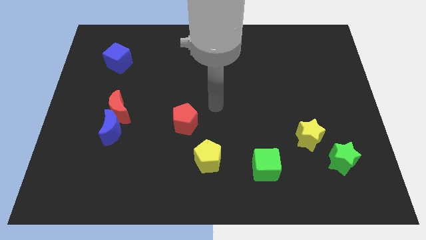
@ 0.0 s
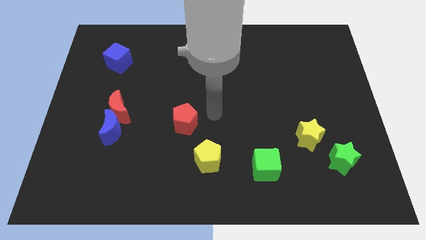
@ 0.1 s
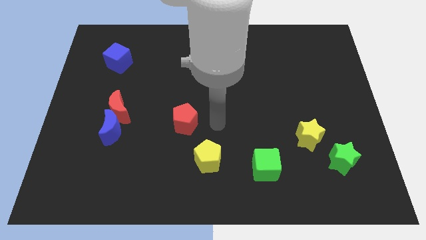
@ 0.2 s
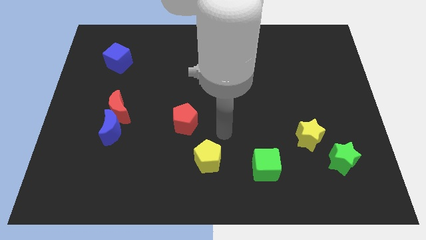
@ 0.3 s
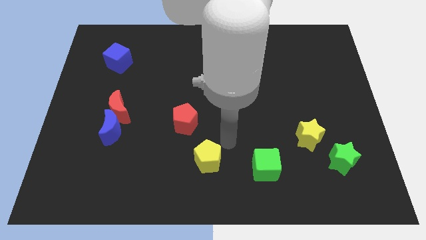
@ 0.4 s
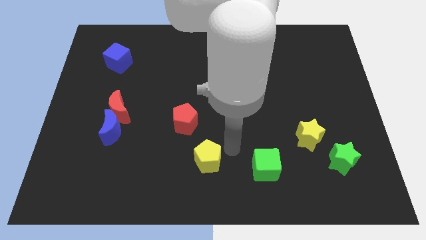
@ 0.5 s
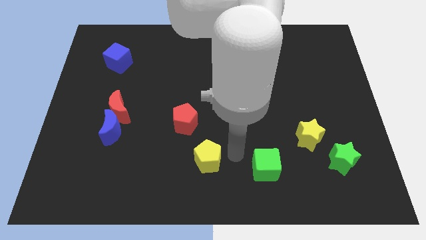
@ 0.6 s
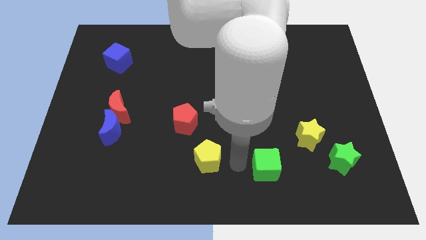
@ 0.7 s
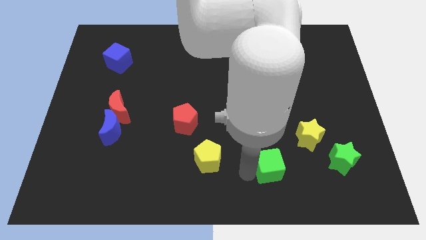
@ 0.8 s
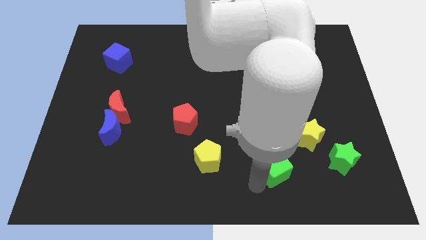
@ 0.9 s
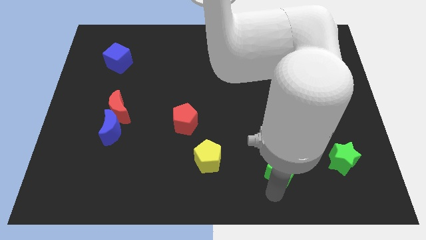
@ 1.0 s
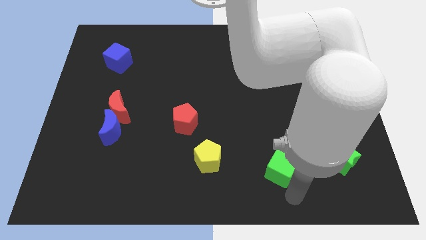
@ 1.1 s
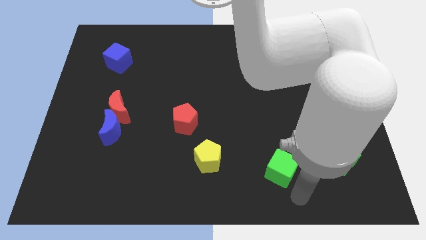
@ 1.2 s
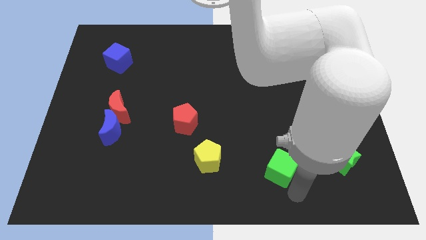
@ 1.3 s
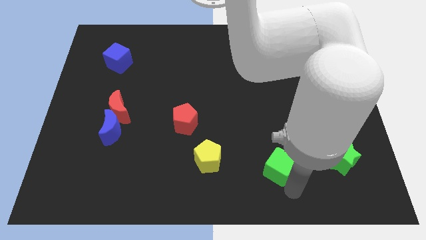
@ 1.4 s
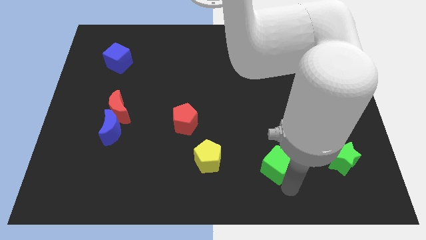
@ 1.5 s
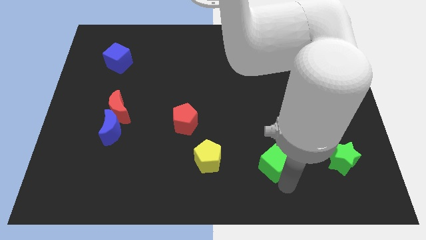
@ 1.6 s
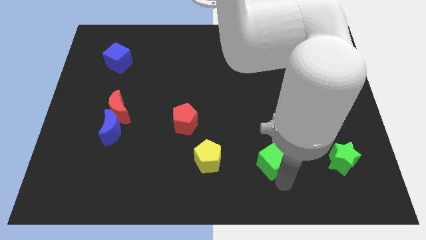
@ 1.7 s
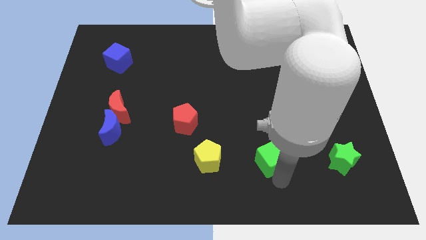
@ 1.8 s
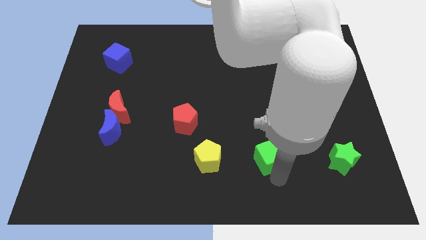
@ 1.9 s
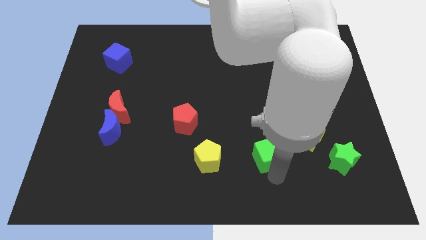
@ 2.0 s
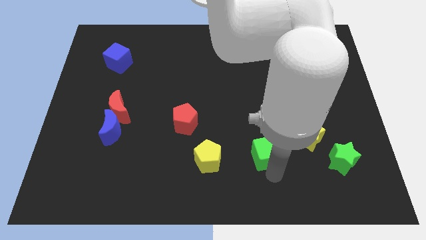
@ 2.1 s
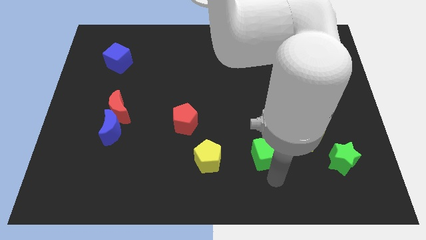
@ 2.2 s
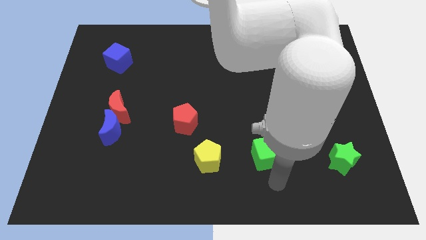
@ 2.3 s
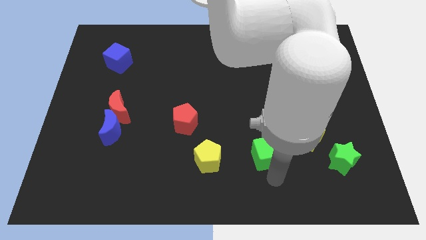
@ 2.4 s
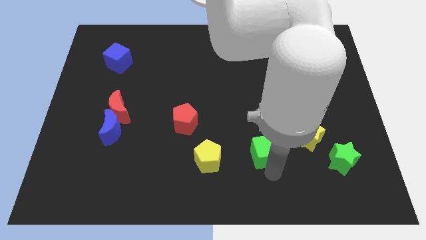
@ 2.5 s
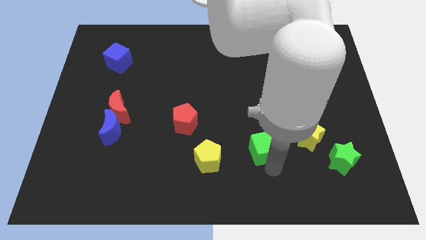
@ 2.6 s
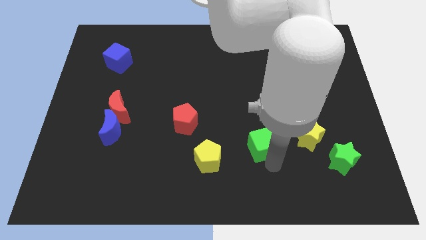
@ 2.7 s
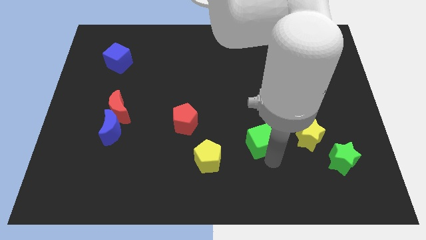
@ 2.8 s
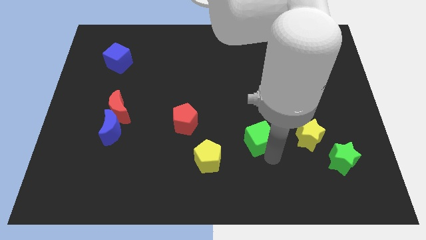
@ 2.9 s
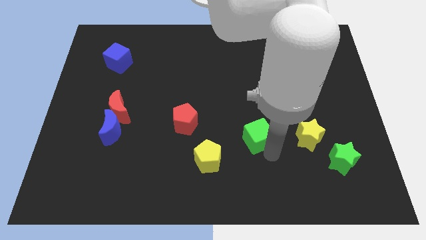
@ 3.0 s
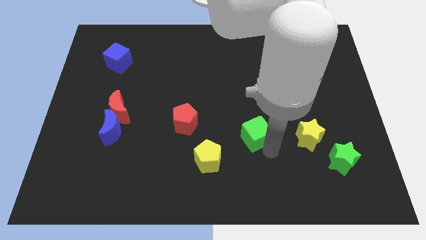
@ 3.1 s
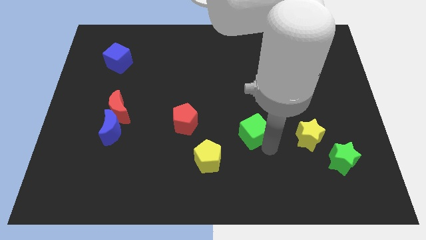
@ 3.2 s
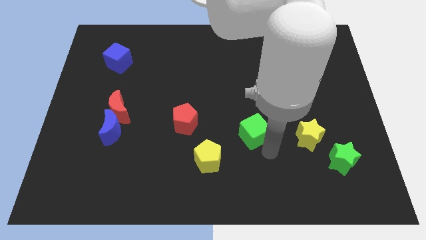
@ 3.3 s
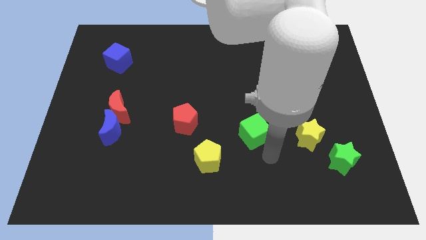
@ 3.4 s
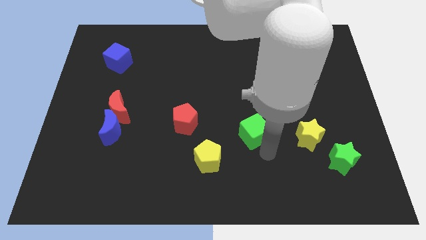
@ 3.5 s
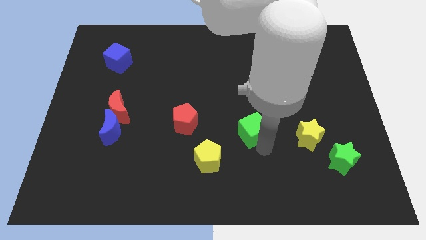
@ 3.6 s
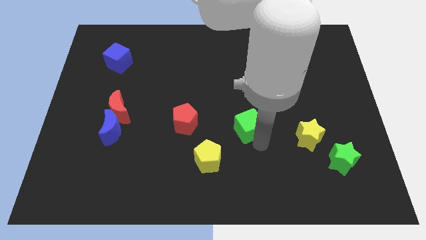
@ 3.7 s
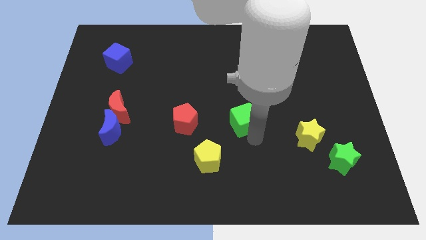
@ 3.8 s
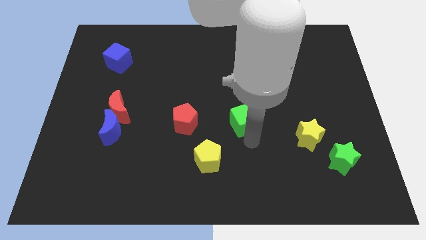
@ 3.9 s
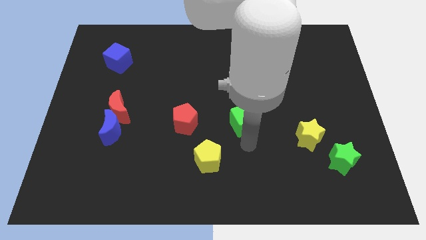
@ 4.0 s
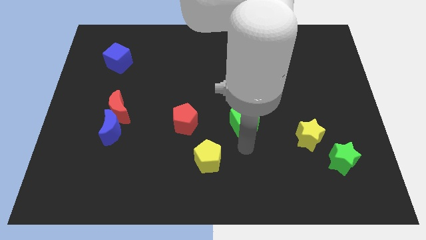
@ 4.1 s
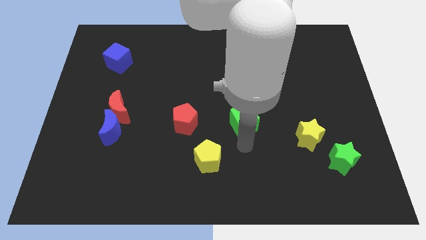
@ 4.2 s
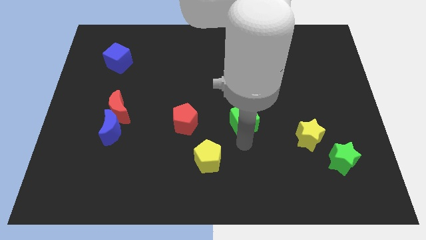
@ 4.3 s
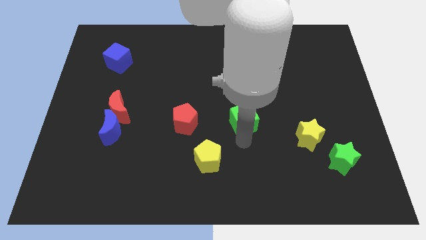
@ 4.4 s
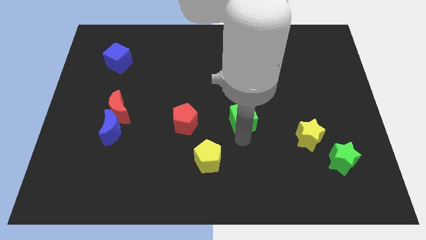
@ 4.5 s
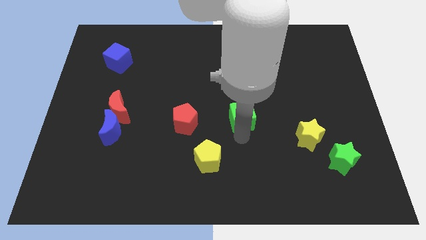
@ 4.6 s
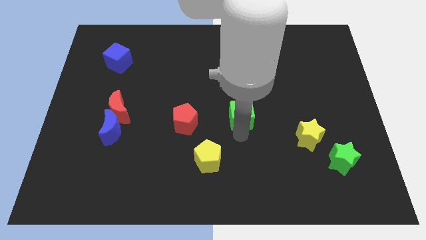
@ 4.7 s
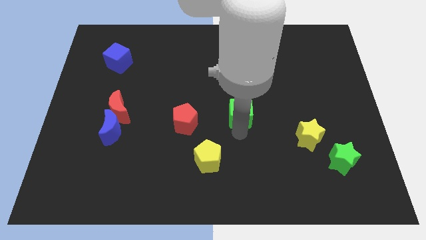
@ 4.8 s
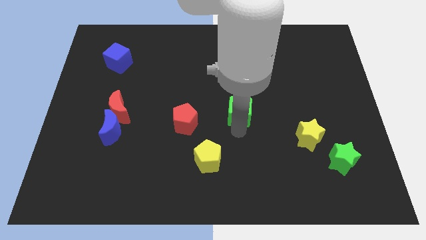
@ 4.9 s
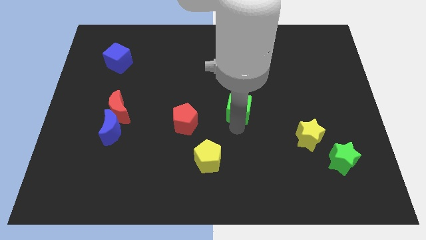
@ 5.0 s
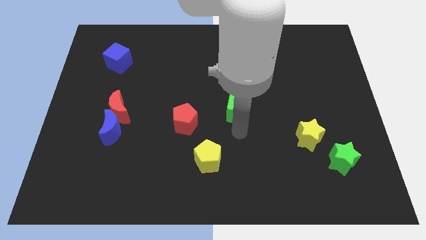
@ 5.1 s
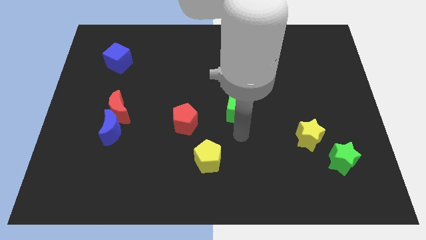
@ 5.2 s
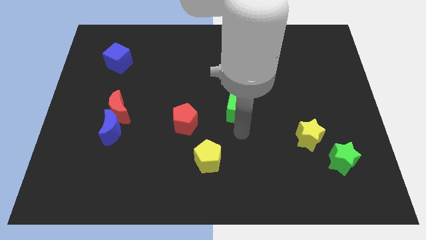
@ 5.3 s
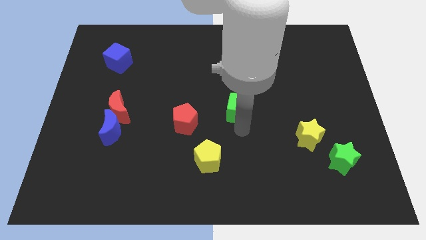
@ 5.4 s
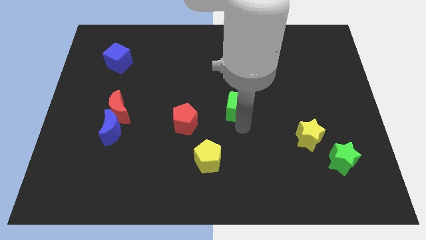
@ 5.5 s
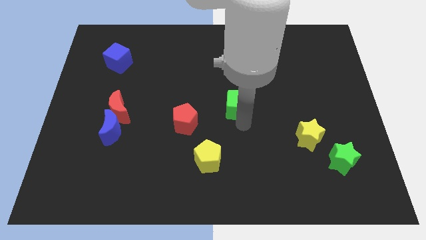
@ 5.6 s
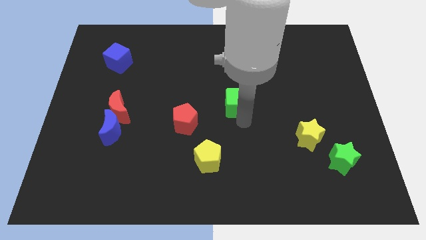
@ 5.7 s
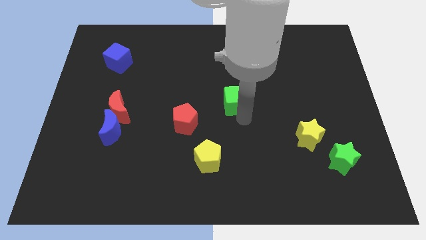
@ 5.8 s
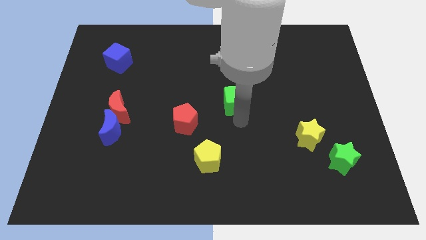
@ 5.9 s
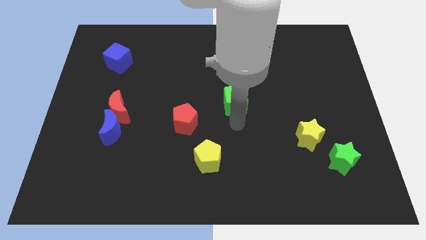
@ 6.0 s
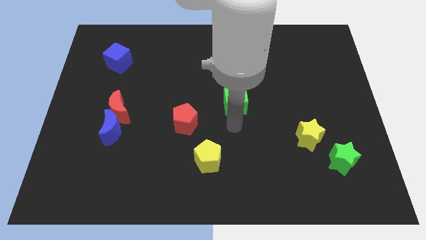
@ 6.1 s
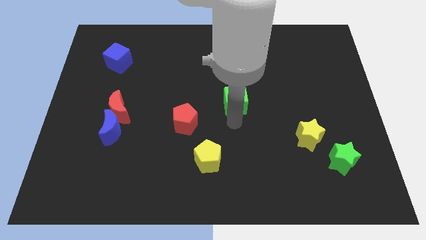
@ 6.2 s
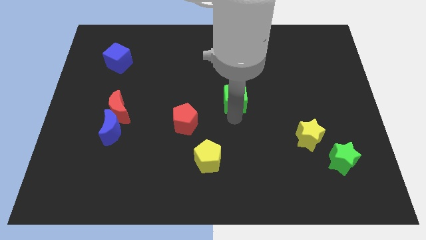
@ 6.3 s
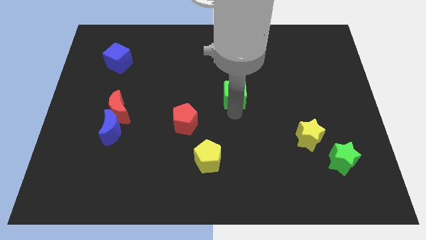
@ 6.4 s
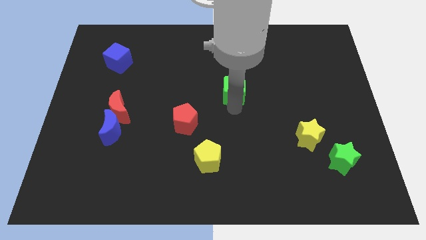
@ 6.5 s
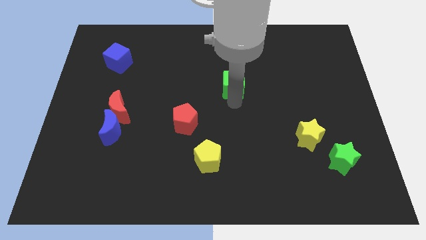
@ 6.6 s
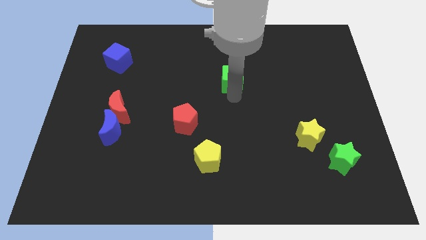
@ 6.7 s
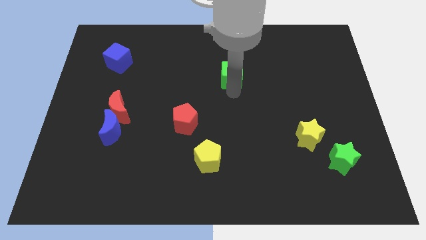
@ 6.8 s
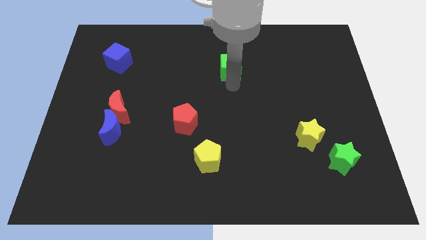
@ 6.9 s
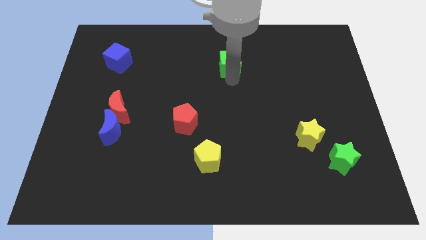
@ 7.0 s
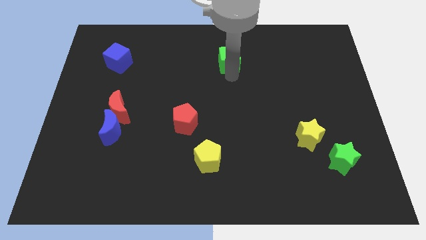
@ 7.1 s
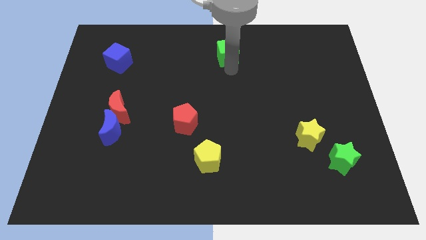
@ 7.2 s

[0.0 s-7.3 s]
put the green cube to the top
